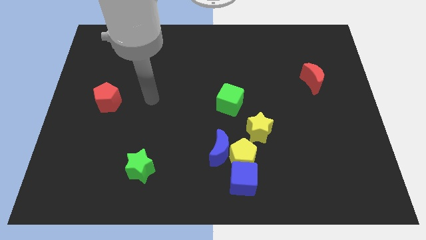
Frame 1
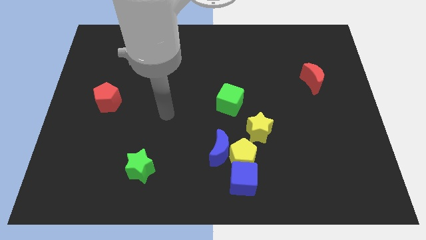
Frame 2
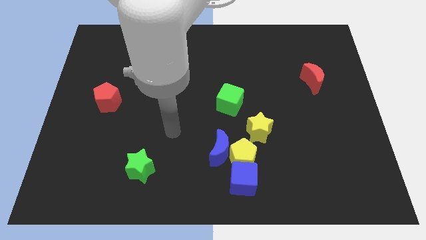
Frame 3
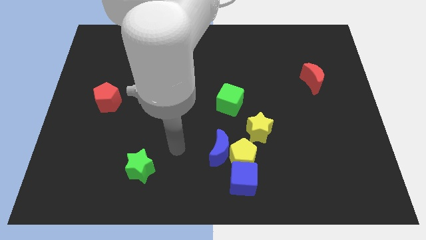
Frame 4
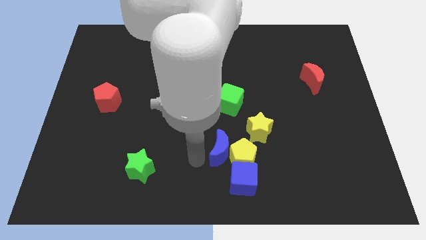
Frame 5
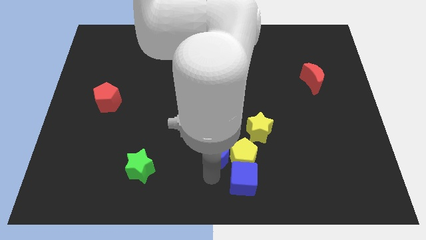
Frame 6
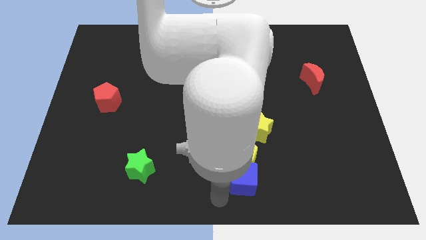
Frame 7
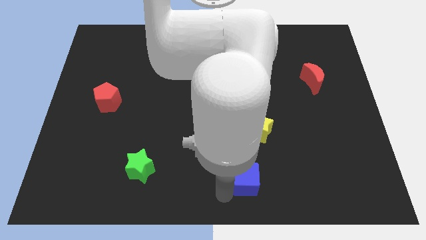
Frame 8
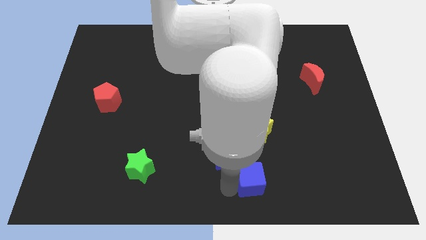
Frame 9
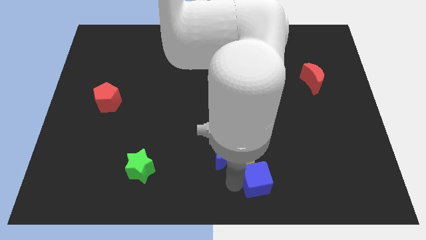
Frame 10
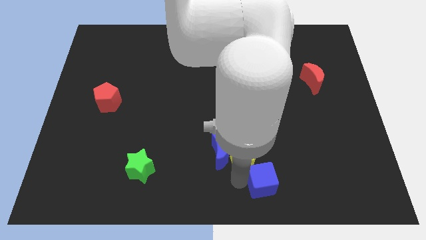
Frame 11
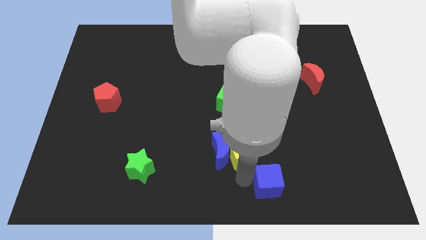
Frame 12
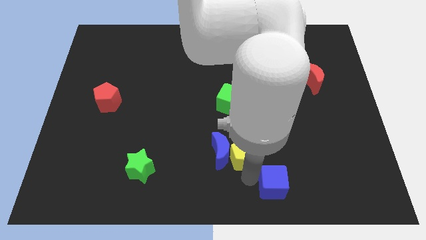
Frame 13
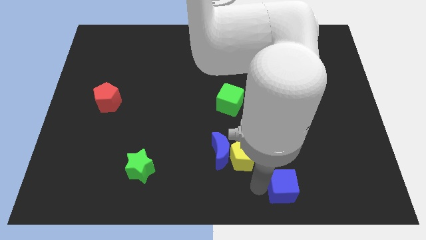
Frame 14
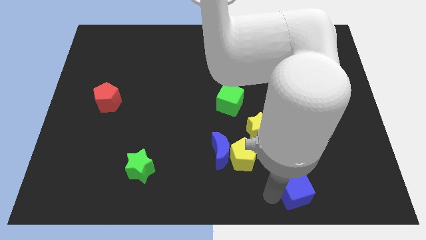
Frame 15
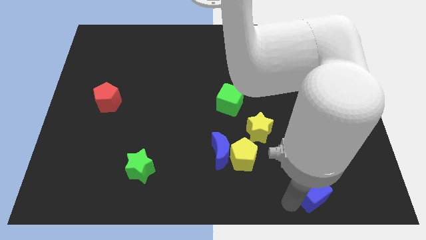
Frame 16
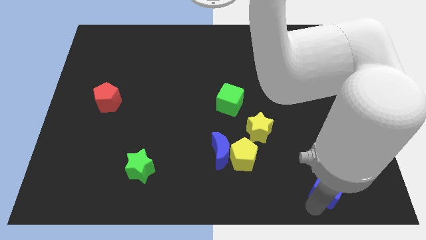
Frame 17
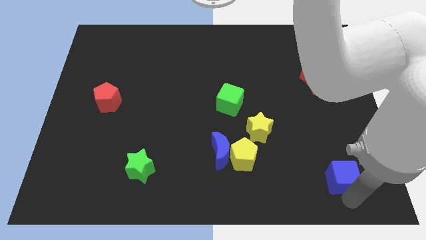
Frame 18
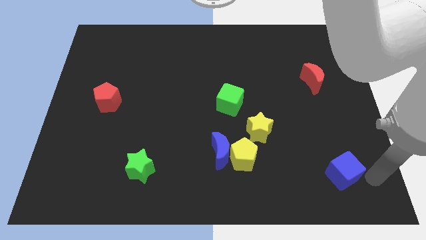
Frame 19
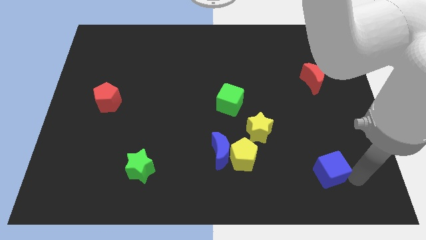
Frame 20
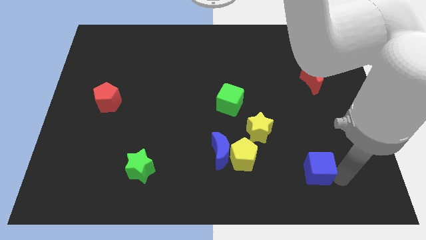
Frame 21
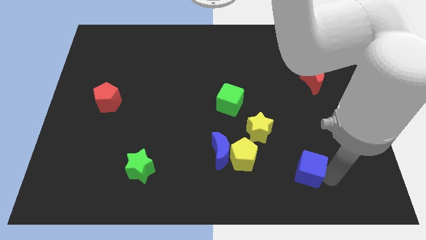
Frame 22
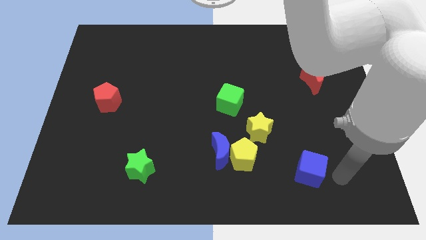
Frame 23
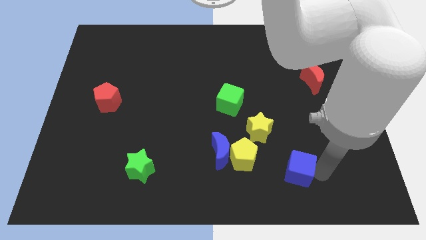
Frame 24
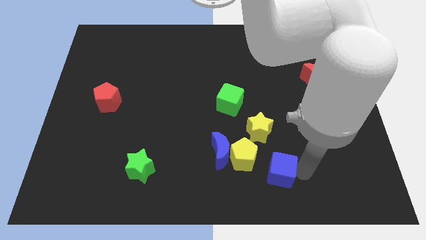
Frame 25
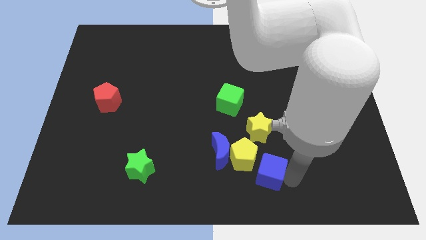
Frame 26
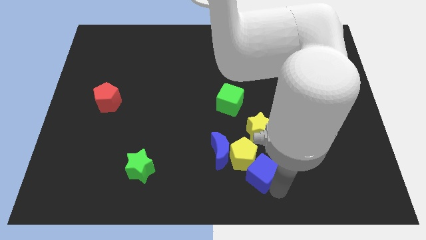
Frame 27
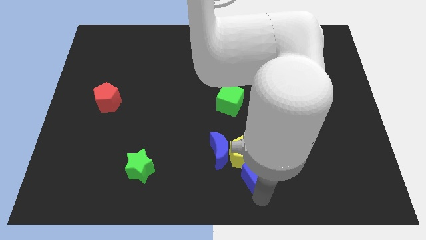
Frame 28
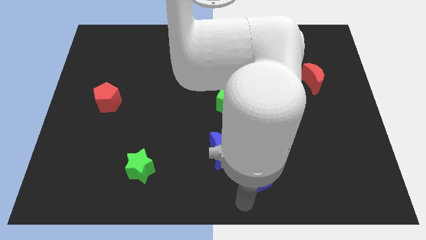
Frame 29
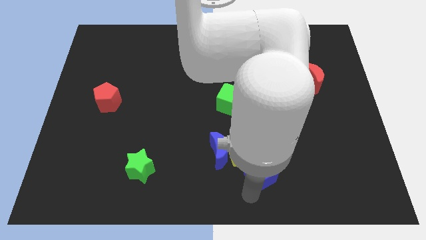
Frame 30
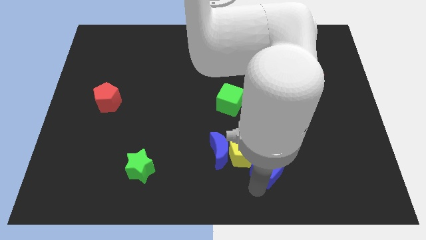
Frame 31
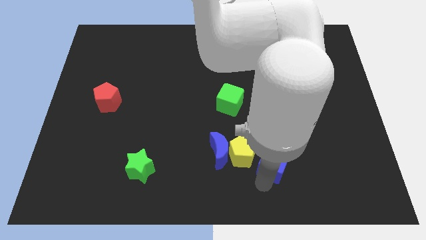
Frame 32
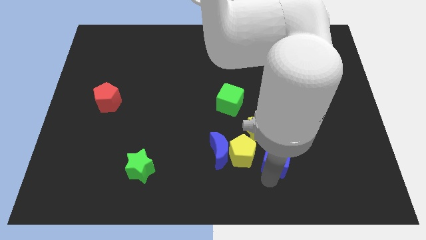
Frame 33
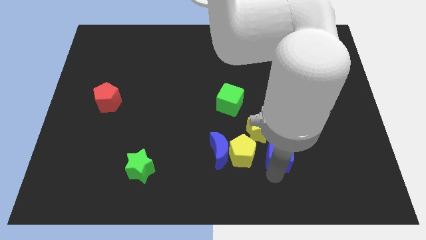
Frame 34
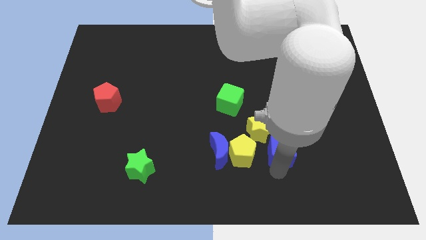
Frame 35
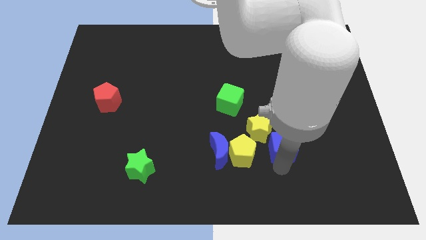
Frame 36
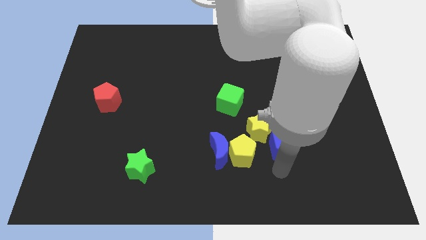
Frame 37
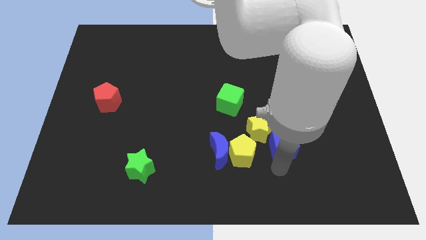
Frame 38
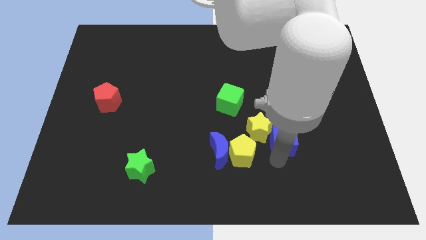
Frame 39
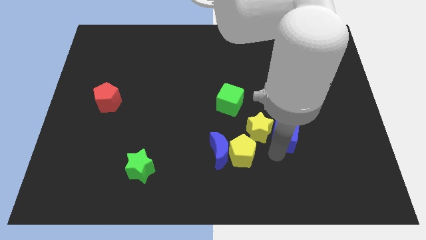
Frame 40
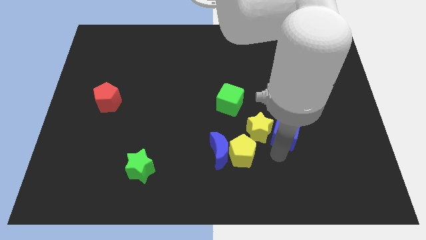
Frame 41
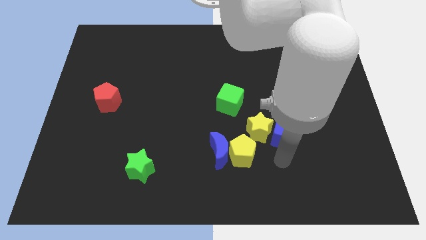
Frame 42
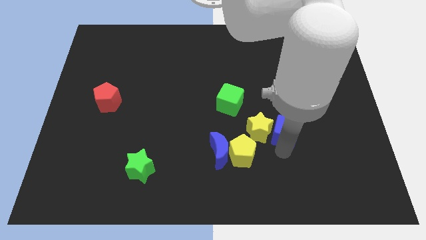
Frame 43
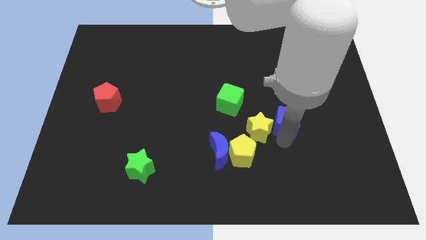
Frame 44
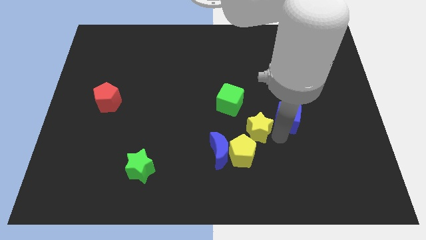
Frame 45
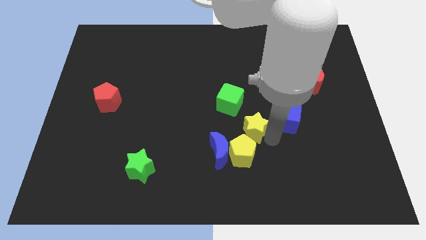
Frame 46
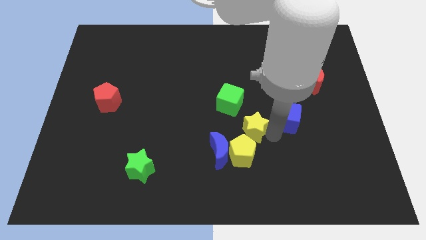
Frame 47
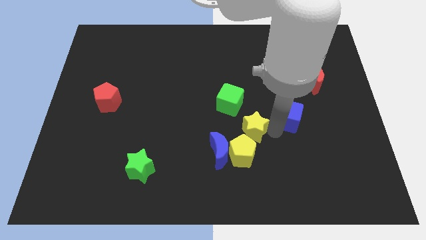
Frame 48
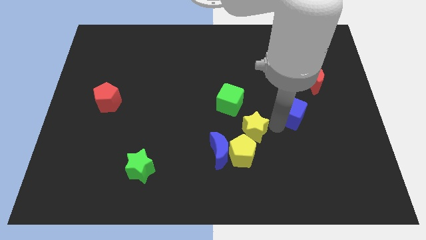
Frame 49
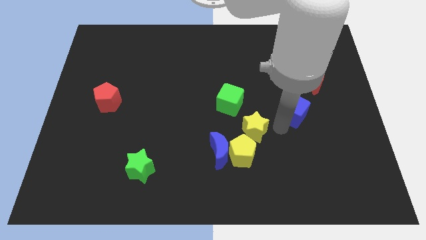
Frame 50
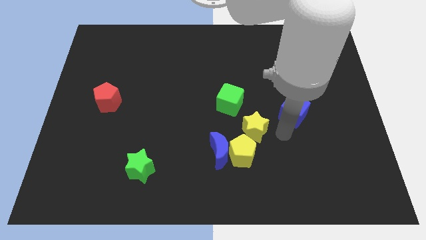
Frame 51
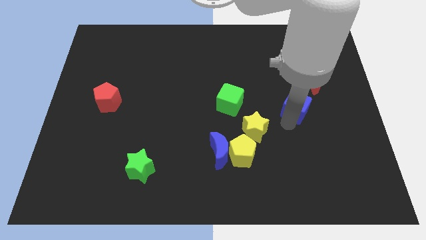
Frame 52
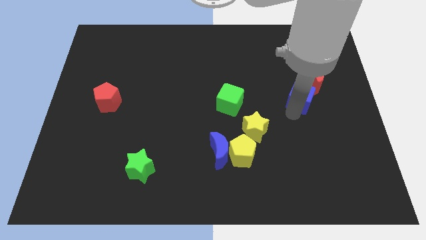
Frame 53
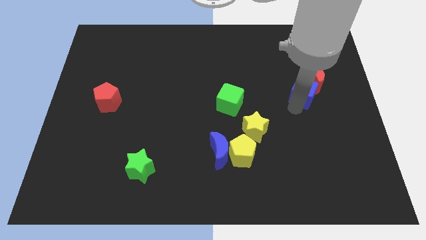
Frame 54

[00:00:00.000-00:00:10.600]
move the blue cube next to the red moon
